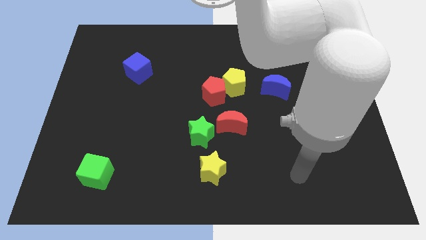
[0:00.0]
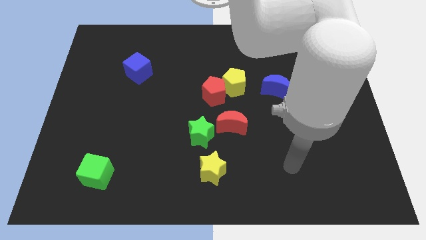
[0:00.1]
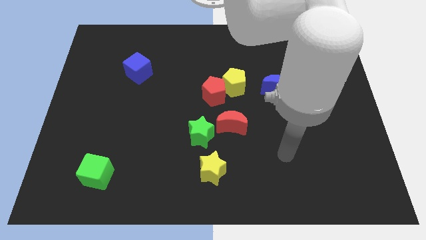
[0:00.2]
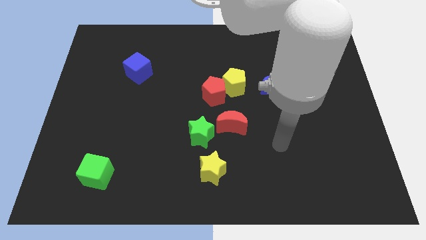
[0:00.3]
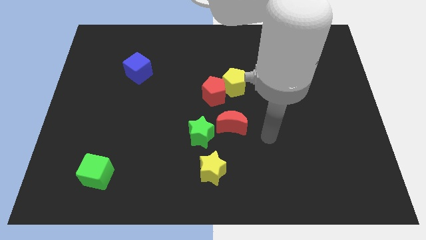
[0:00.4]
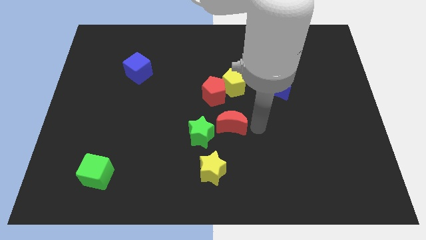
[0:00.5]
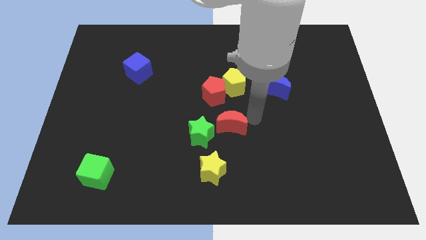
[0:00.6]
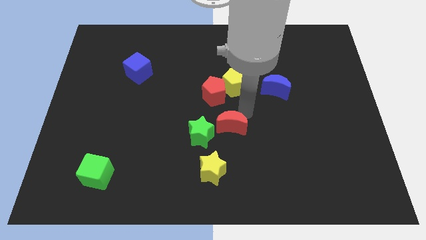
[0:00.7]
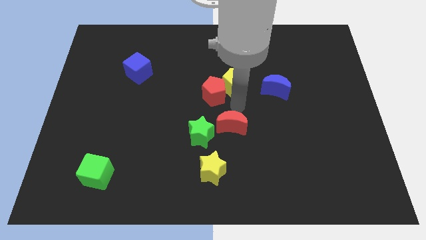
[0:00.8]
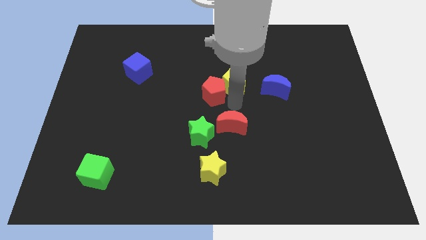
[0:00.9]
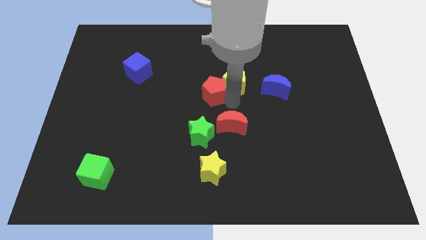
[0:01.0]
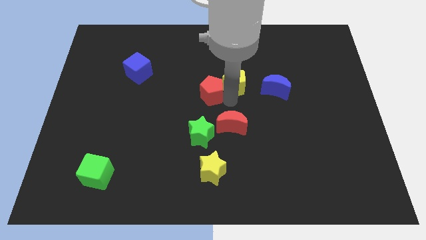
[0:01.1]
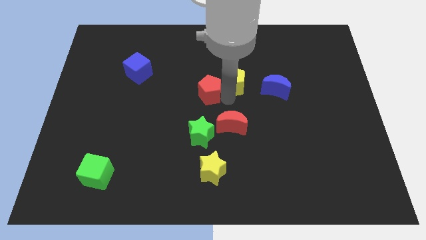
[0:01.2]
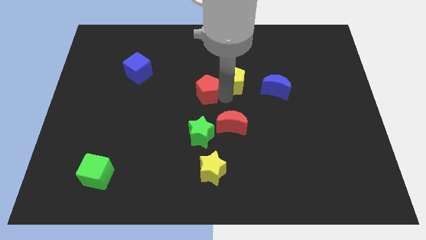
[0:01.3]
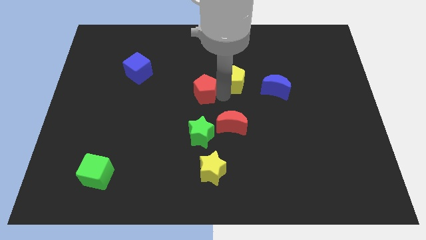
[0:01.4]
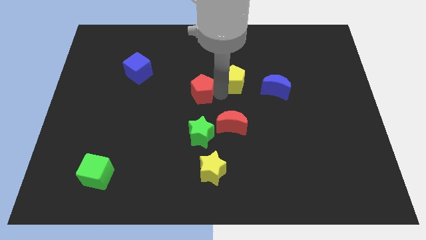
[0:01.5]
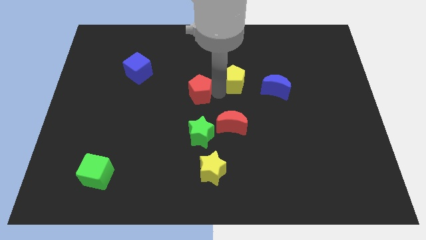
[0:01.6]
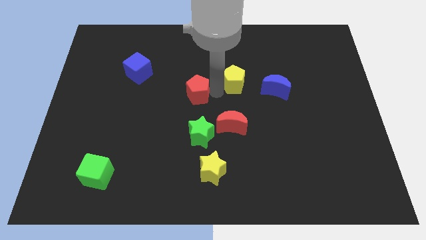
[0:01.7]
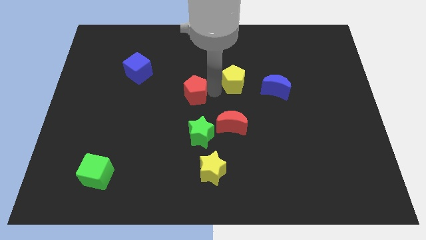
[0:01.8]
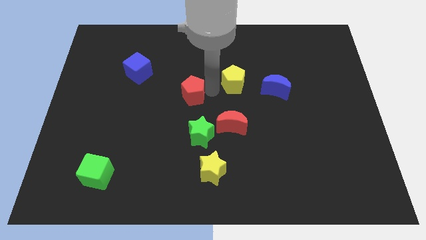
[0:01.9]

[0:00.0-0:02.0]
move the red pentagon away from the yellow pentagon and red moon

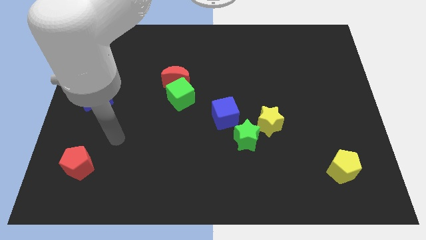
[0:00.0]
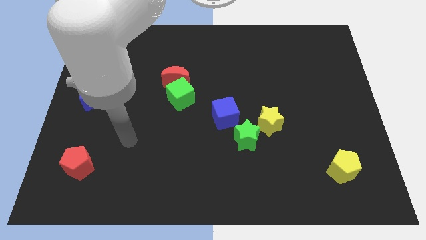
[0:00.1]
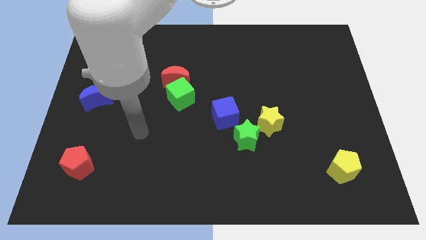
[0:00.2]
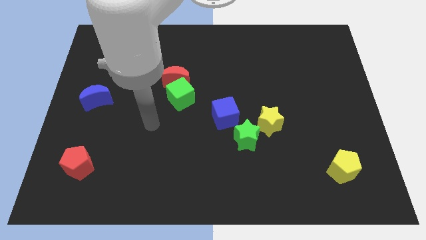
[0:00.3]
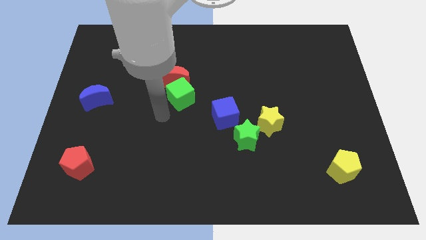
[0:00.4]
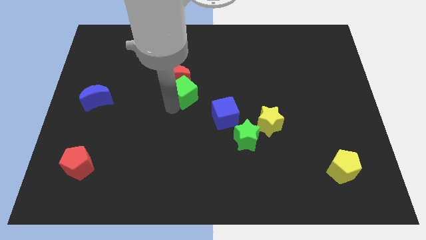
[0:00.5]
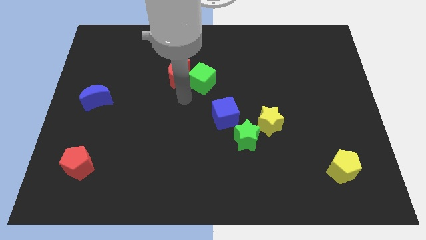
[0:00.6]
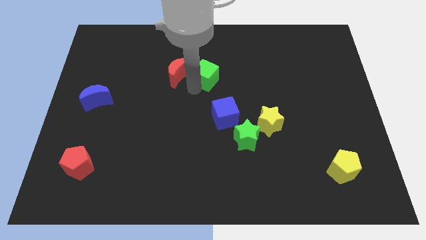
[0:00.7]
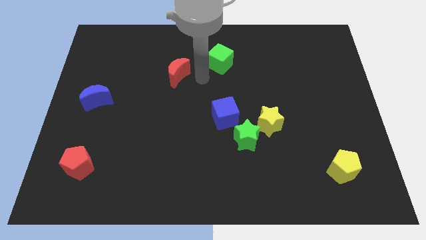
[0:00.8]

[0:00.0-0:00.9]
separate the red moon from the green cube

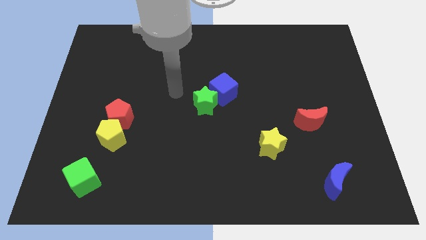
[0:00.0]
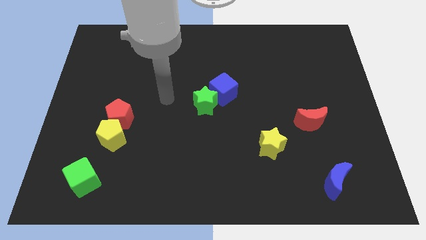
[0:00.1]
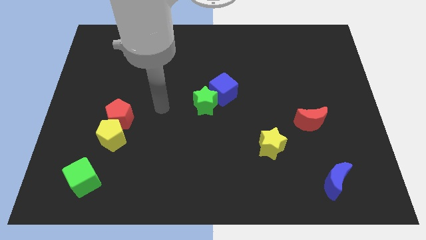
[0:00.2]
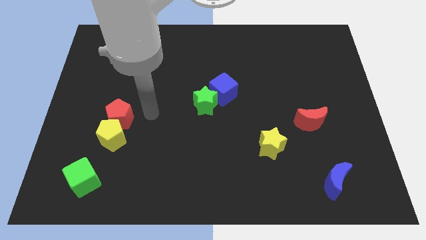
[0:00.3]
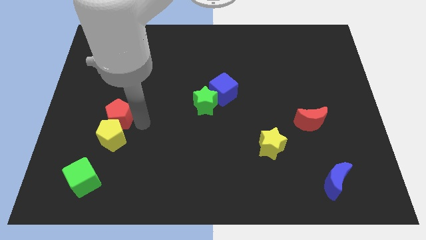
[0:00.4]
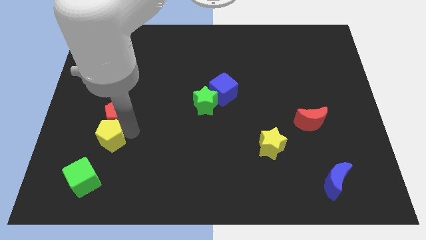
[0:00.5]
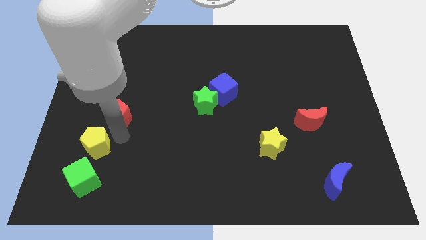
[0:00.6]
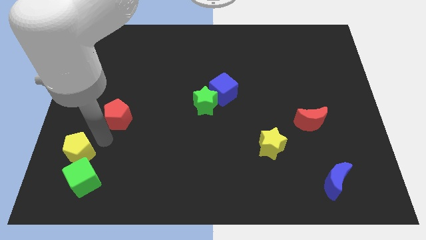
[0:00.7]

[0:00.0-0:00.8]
separate the red pentagon from the yellow pentagon

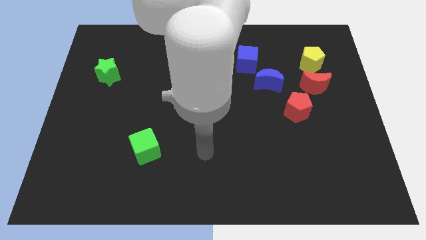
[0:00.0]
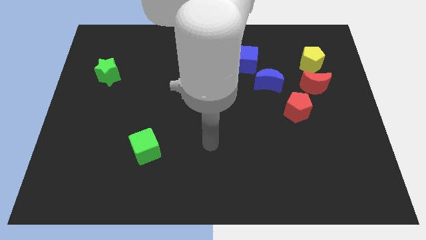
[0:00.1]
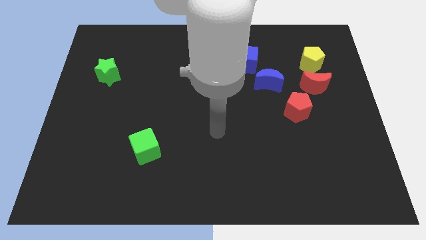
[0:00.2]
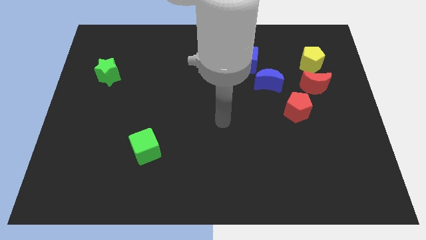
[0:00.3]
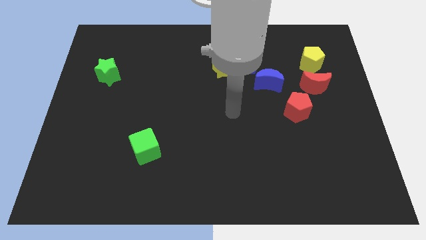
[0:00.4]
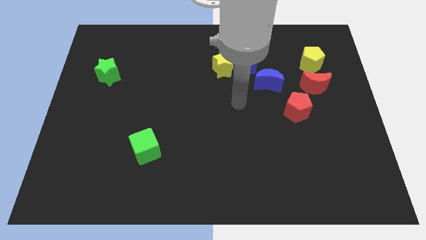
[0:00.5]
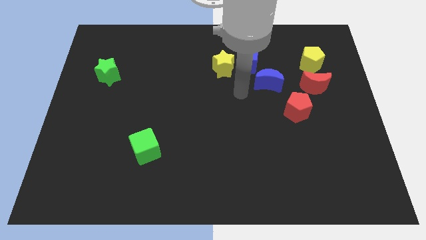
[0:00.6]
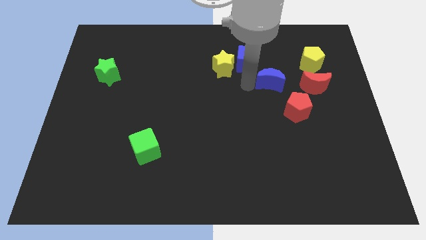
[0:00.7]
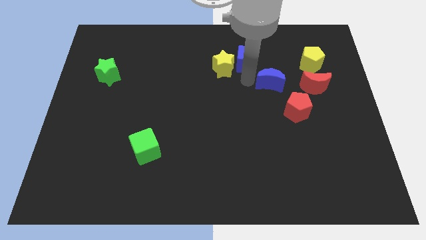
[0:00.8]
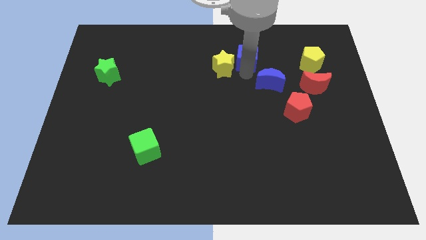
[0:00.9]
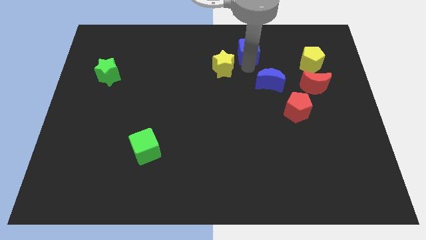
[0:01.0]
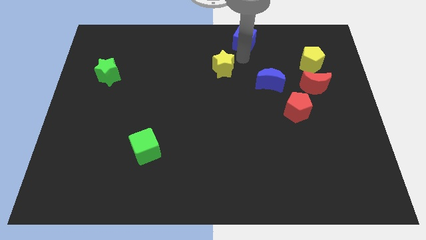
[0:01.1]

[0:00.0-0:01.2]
move the yellow star away from the blue cube

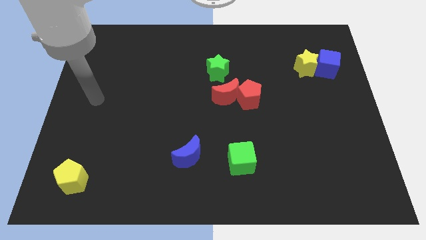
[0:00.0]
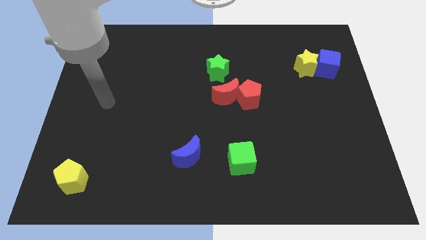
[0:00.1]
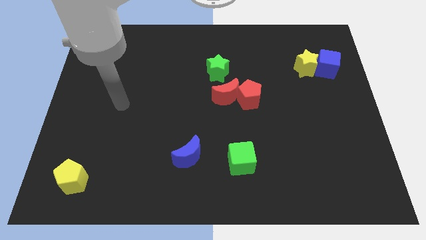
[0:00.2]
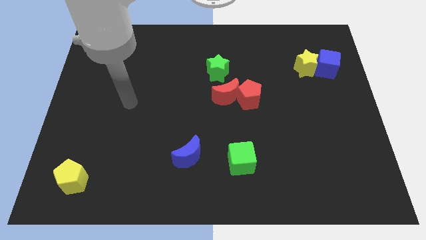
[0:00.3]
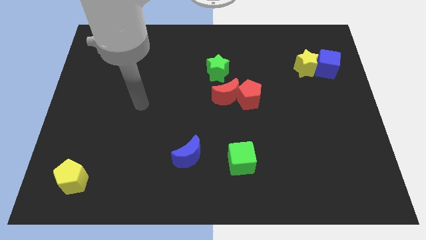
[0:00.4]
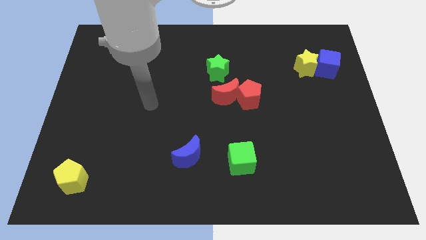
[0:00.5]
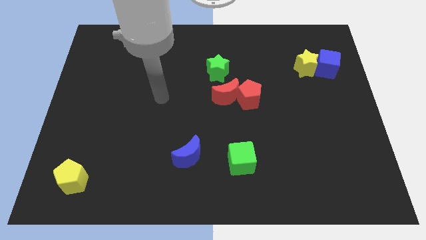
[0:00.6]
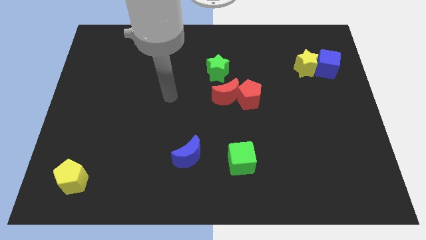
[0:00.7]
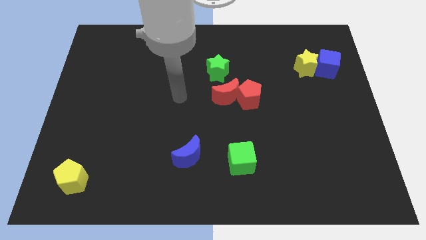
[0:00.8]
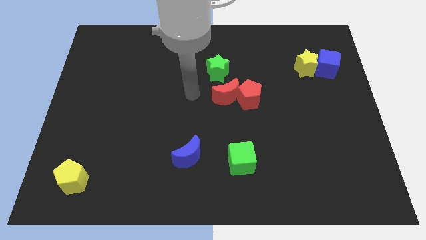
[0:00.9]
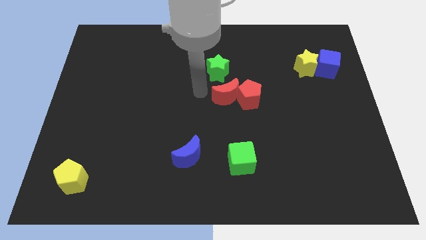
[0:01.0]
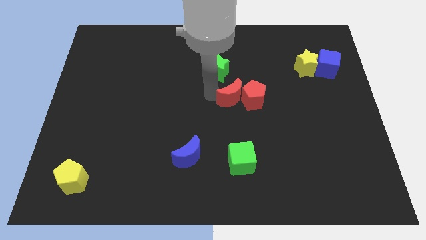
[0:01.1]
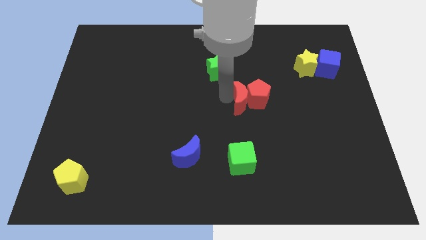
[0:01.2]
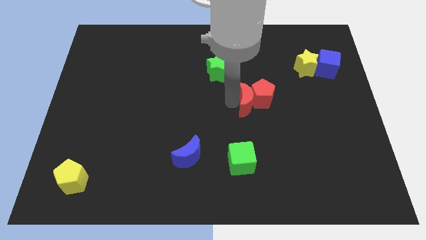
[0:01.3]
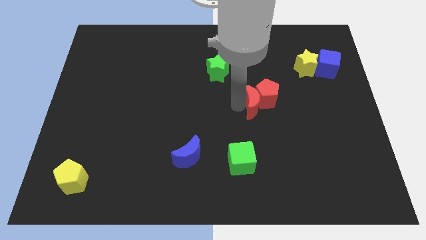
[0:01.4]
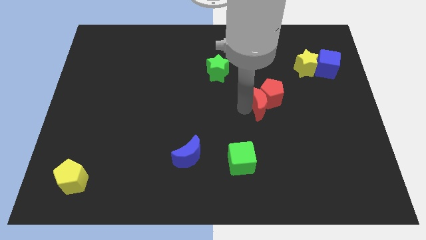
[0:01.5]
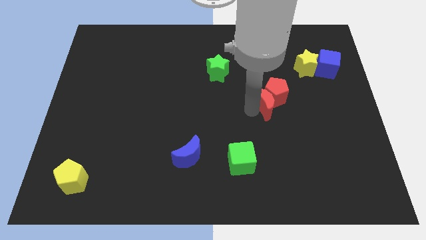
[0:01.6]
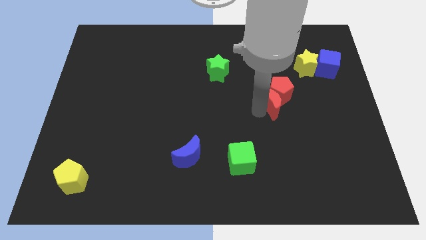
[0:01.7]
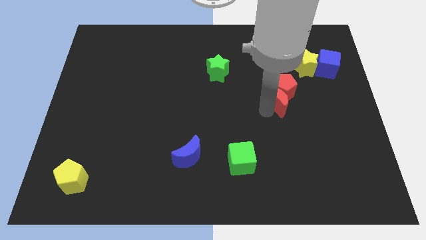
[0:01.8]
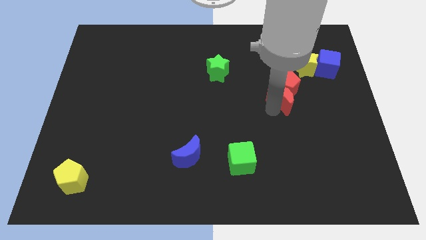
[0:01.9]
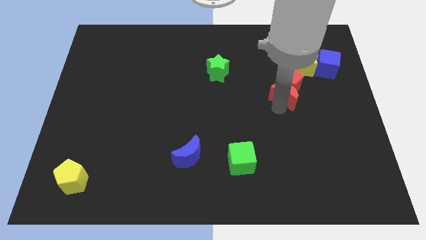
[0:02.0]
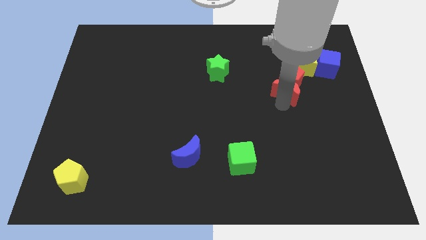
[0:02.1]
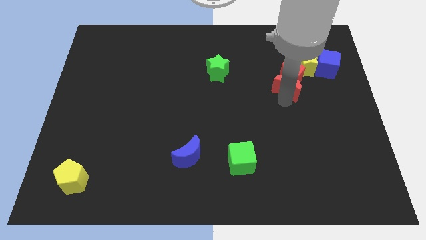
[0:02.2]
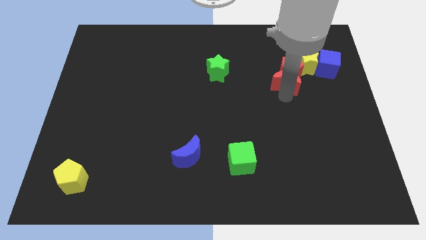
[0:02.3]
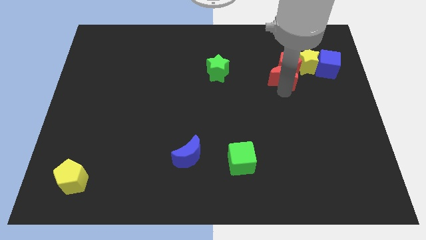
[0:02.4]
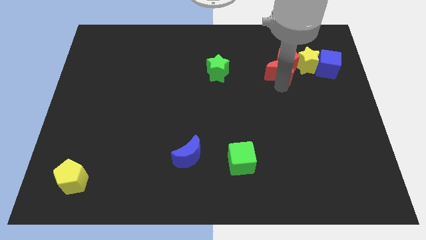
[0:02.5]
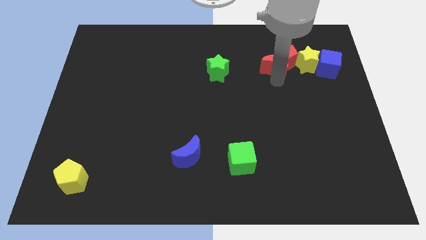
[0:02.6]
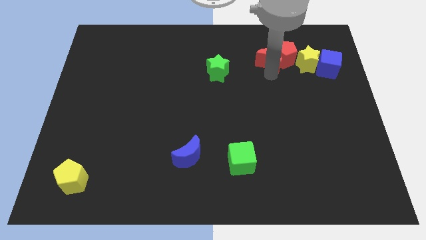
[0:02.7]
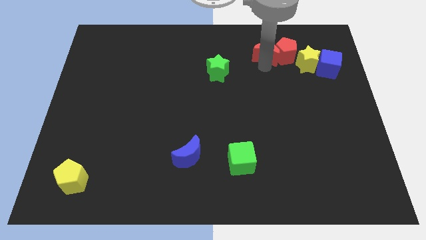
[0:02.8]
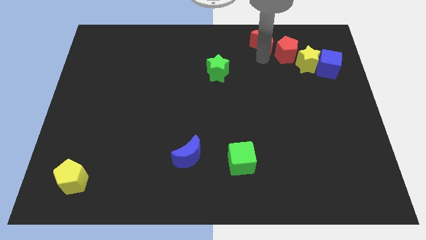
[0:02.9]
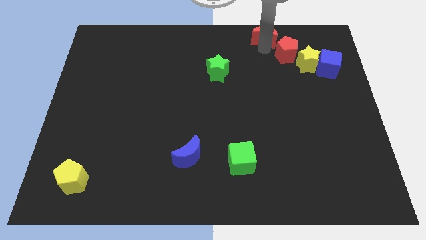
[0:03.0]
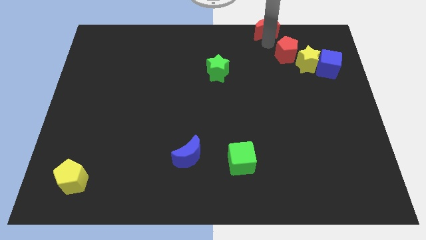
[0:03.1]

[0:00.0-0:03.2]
separate the red pentagon from the red moon

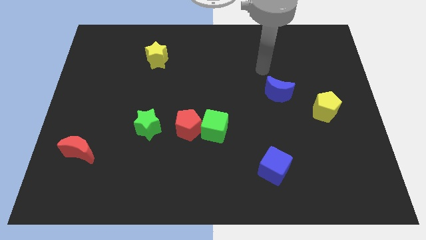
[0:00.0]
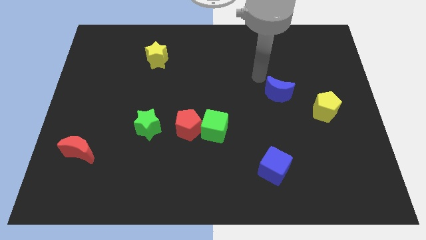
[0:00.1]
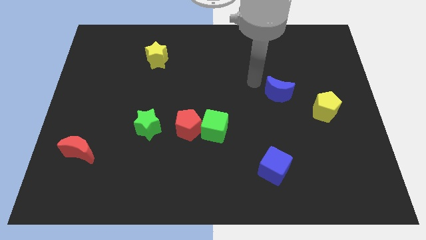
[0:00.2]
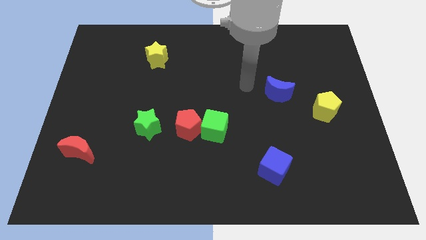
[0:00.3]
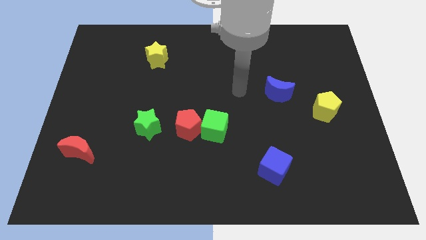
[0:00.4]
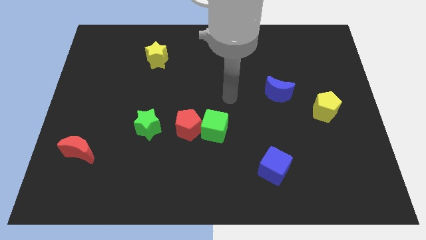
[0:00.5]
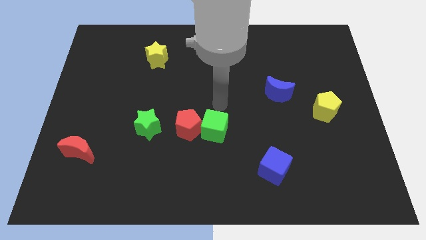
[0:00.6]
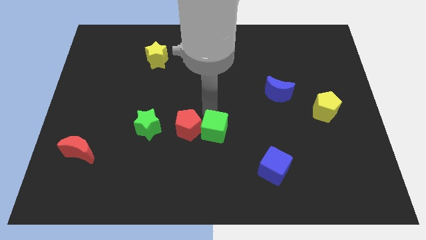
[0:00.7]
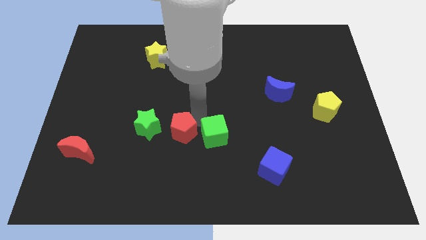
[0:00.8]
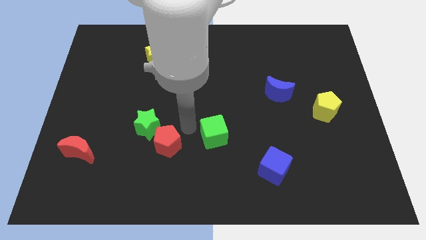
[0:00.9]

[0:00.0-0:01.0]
pull the green cube apart from the red pentagon

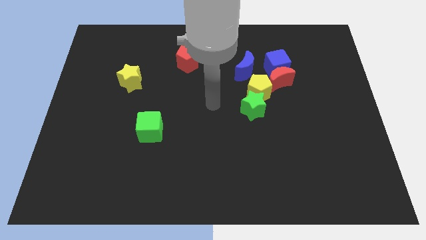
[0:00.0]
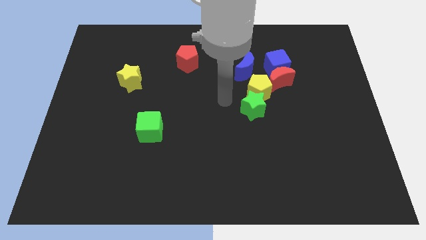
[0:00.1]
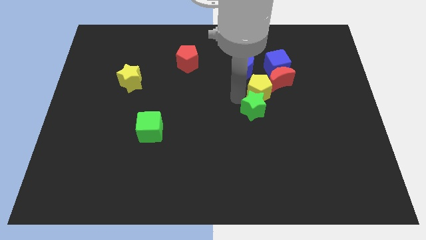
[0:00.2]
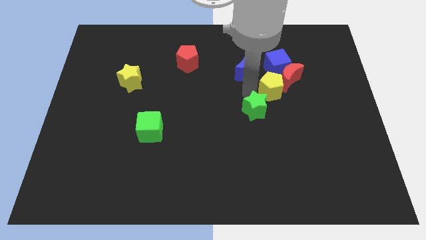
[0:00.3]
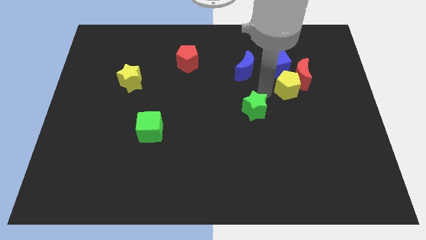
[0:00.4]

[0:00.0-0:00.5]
move the green star away from the yellow pentagon
